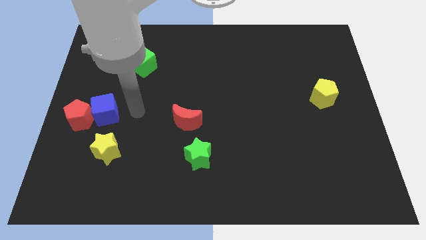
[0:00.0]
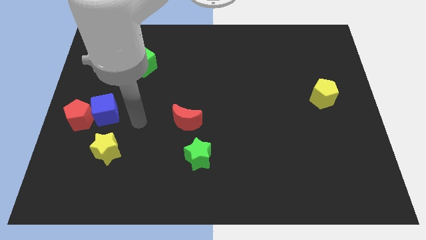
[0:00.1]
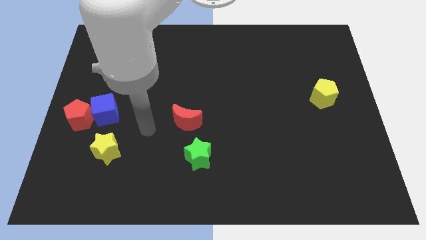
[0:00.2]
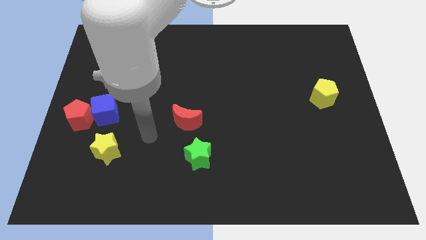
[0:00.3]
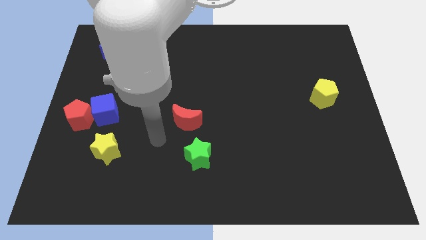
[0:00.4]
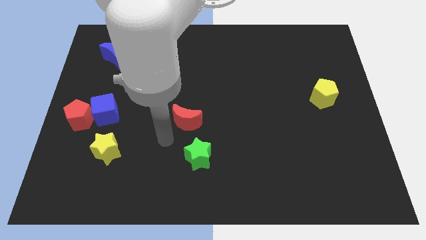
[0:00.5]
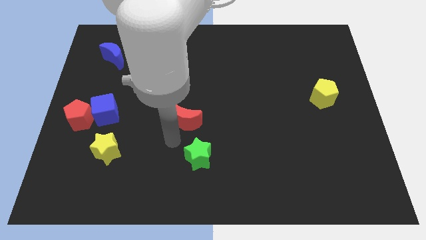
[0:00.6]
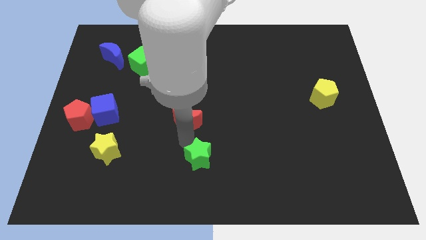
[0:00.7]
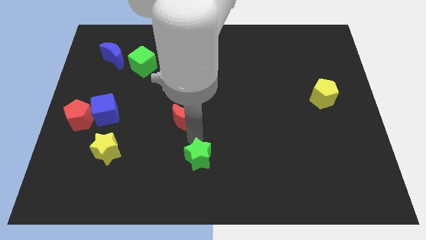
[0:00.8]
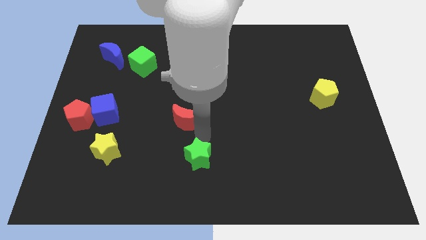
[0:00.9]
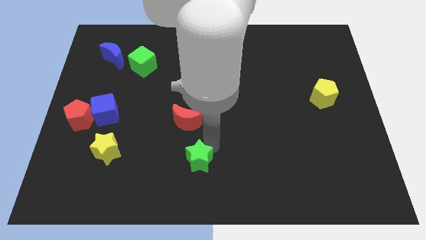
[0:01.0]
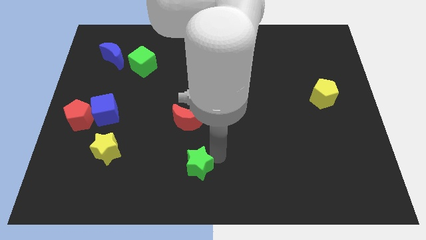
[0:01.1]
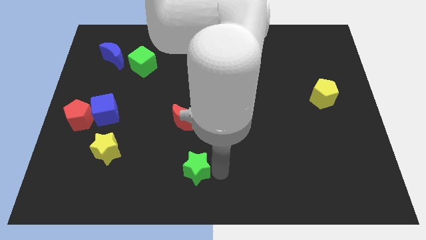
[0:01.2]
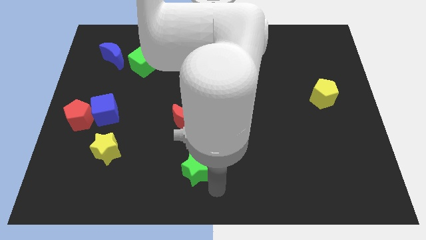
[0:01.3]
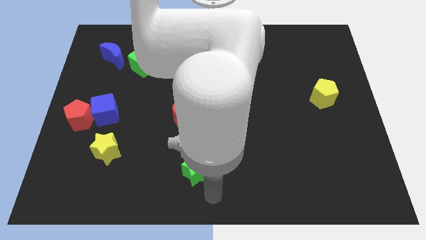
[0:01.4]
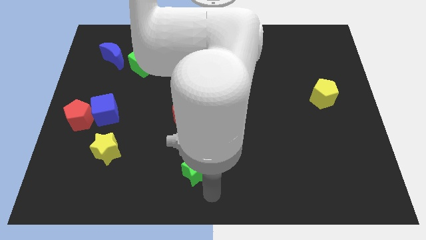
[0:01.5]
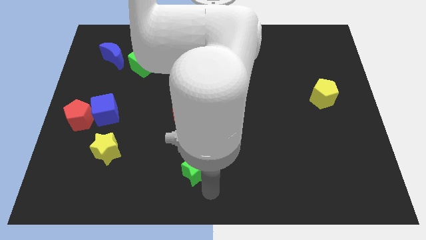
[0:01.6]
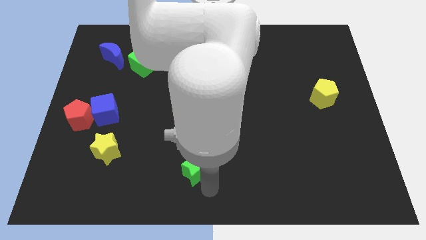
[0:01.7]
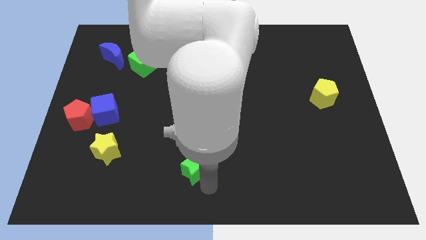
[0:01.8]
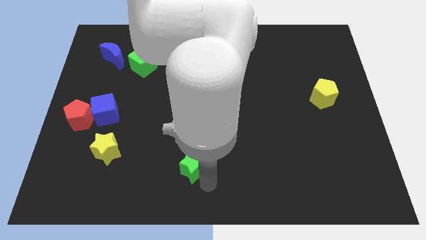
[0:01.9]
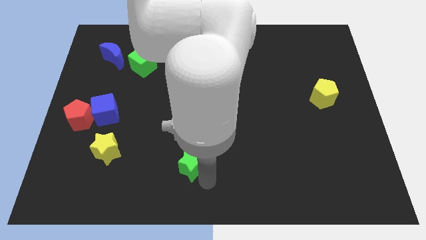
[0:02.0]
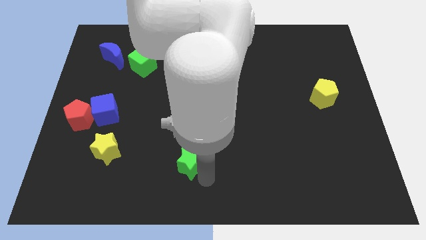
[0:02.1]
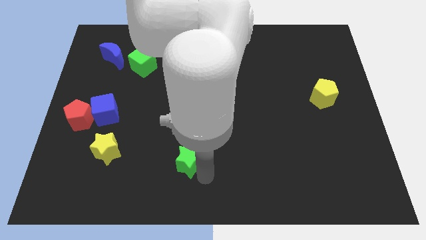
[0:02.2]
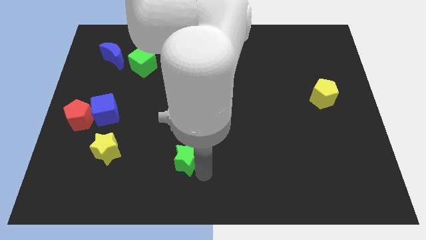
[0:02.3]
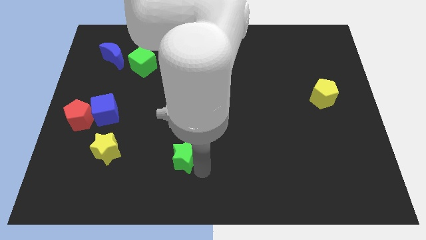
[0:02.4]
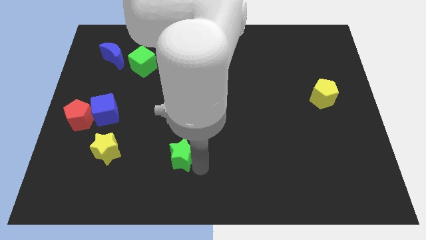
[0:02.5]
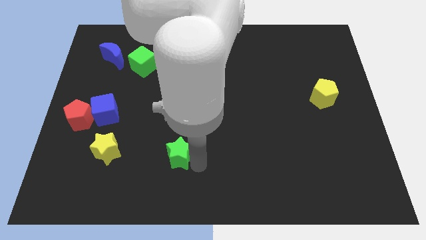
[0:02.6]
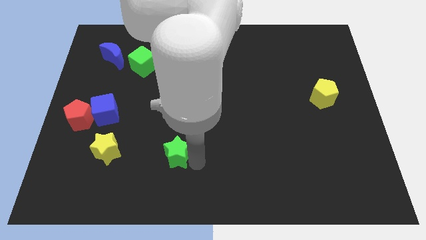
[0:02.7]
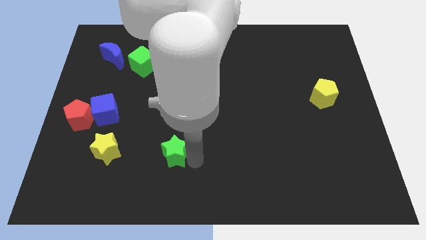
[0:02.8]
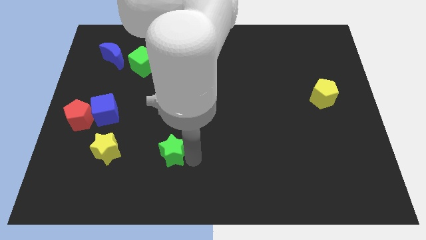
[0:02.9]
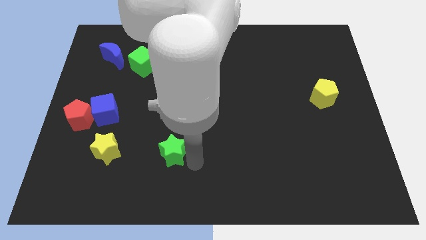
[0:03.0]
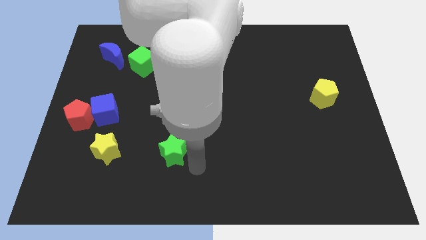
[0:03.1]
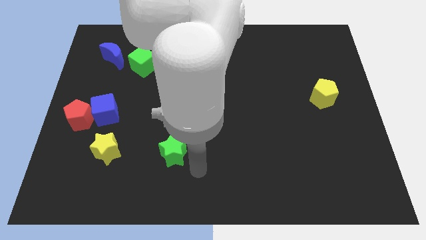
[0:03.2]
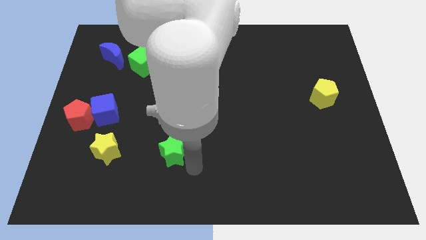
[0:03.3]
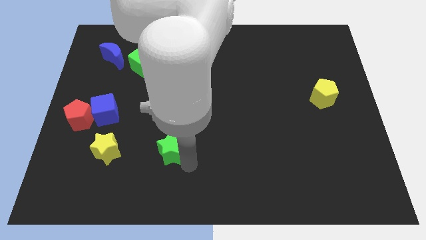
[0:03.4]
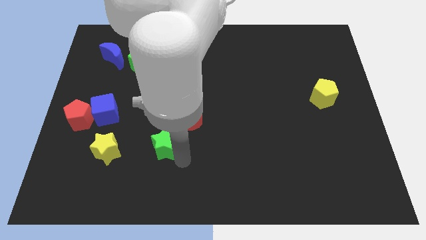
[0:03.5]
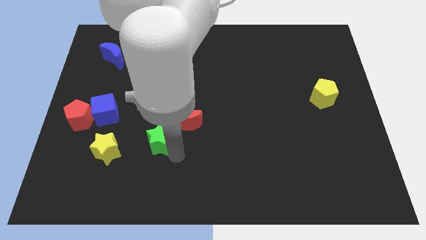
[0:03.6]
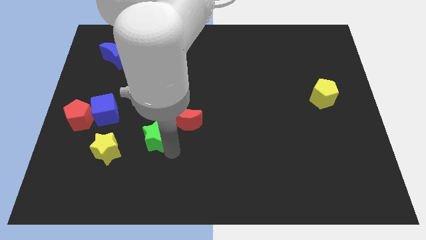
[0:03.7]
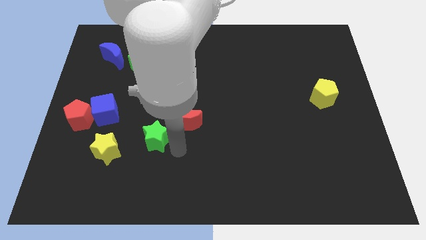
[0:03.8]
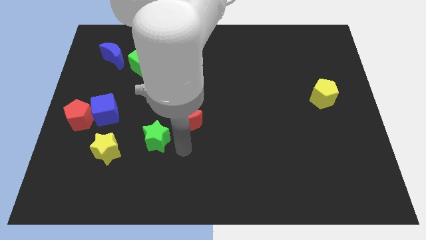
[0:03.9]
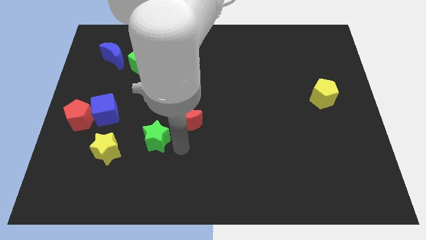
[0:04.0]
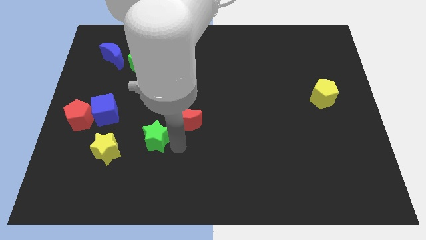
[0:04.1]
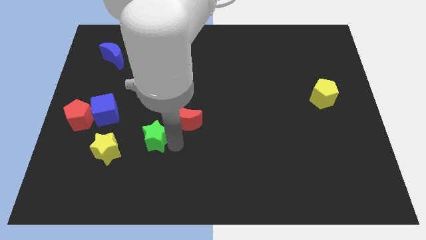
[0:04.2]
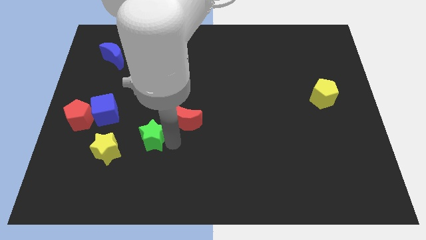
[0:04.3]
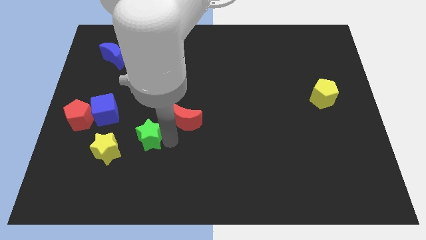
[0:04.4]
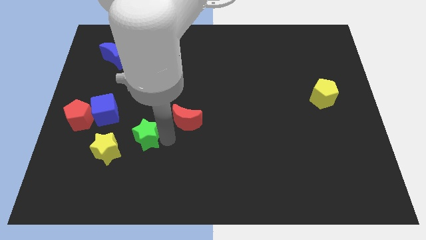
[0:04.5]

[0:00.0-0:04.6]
move the green star diagonally down and to the right of the blue cube

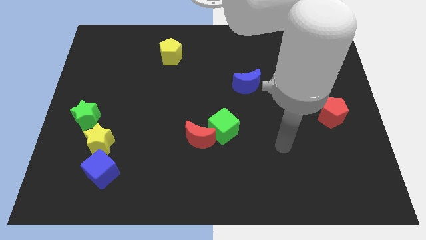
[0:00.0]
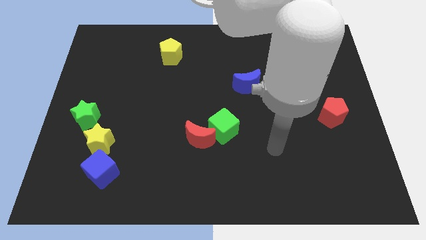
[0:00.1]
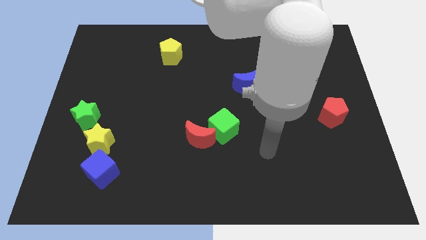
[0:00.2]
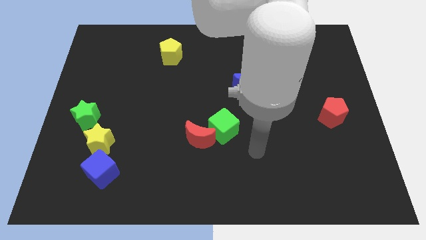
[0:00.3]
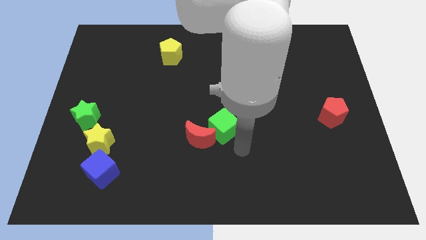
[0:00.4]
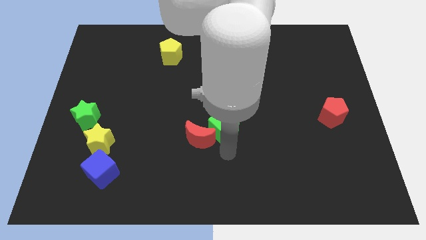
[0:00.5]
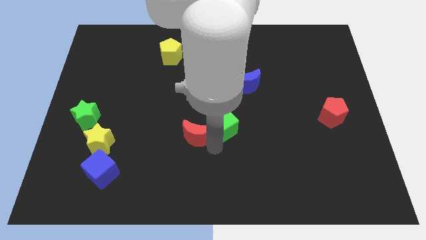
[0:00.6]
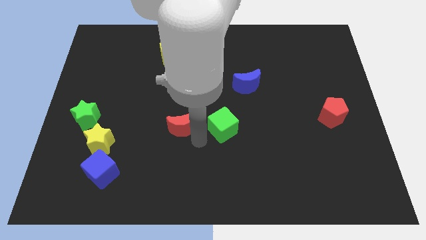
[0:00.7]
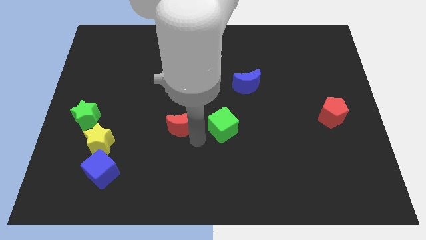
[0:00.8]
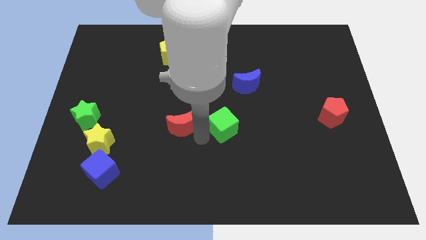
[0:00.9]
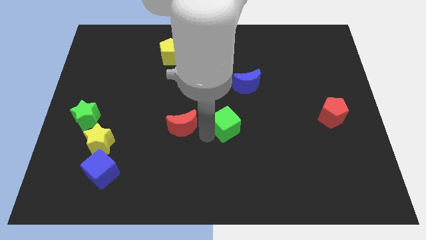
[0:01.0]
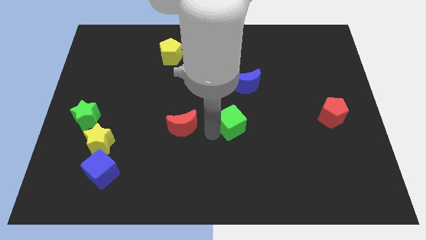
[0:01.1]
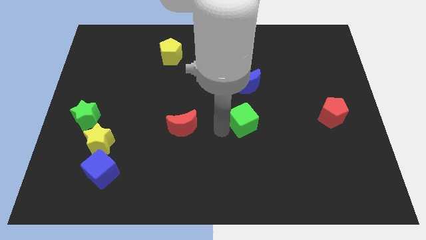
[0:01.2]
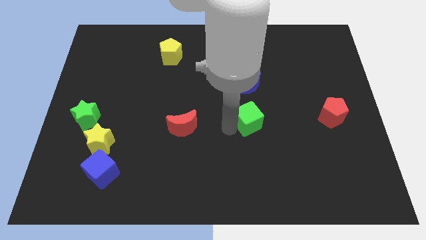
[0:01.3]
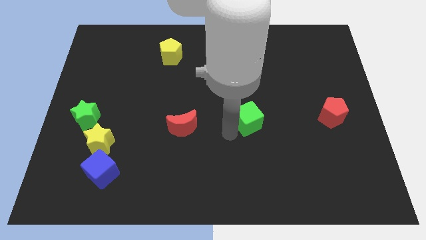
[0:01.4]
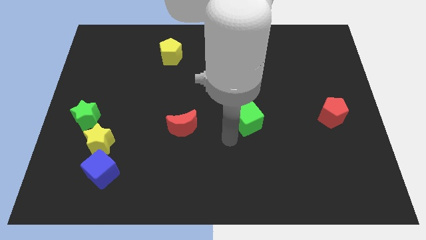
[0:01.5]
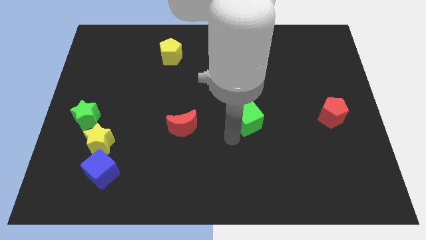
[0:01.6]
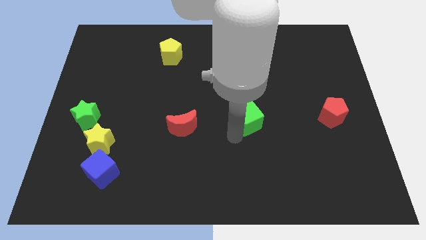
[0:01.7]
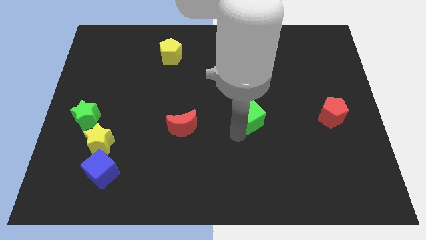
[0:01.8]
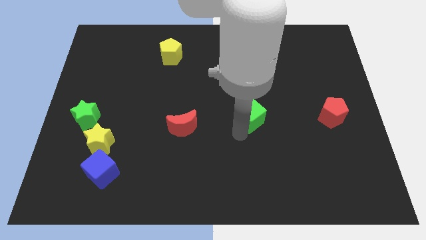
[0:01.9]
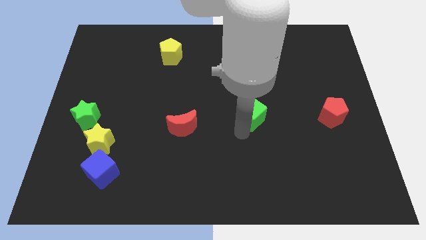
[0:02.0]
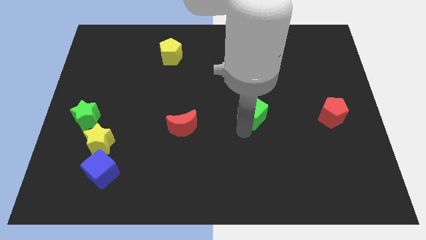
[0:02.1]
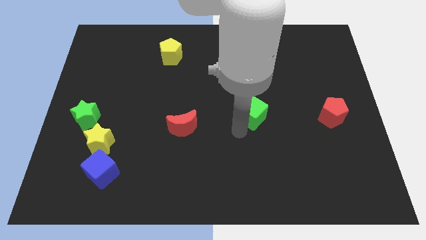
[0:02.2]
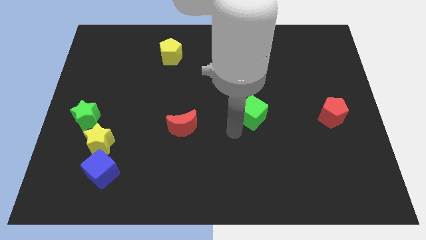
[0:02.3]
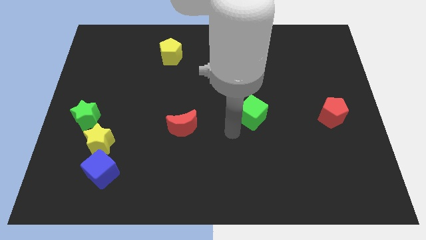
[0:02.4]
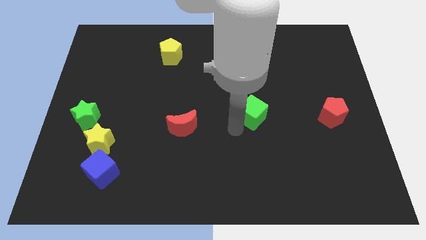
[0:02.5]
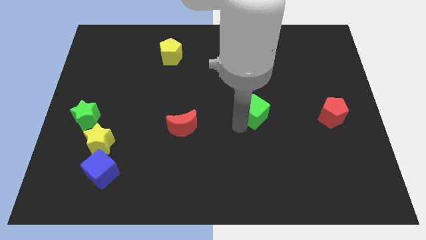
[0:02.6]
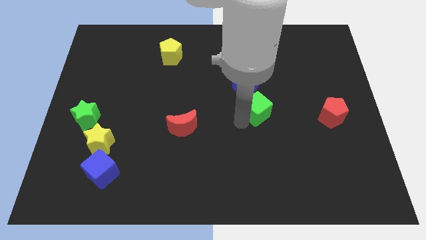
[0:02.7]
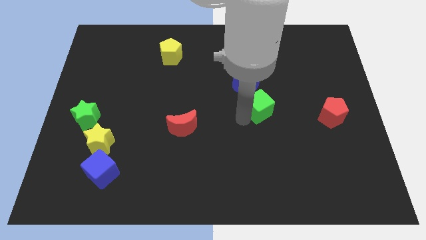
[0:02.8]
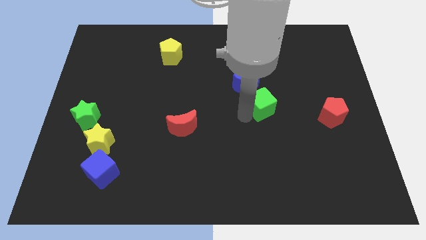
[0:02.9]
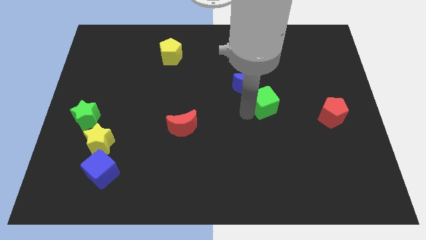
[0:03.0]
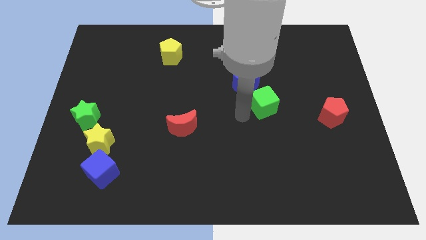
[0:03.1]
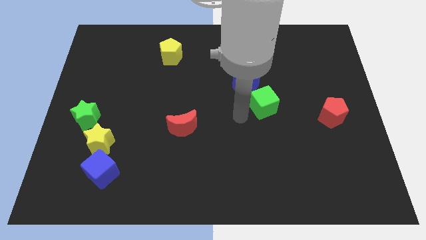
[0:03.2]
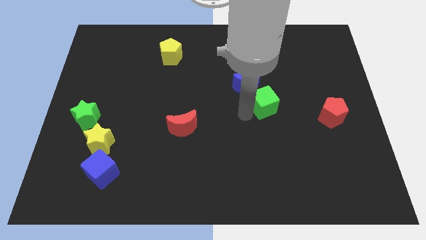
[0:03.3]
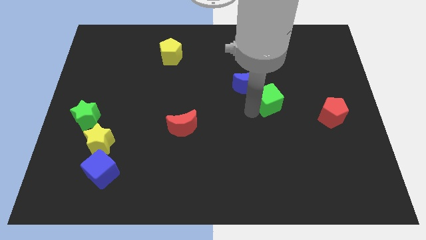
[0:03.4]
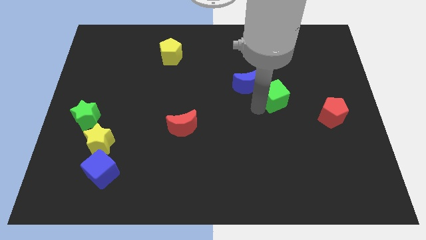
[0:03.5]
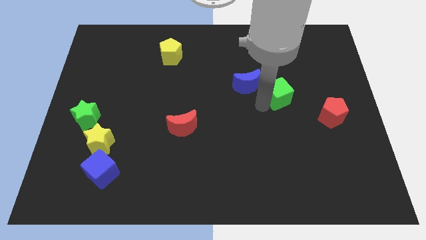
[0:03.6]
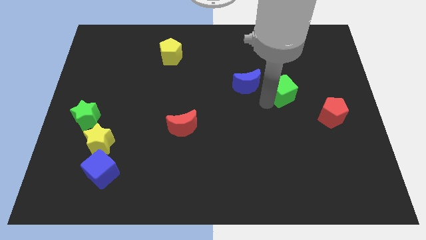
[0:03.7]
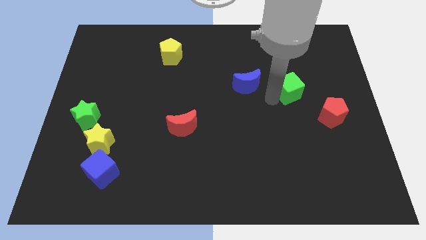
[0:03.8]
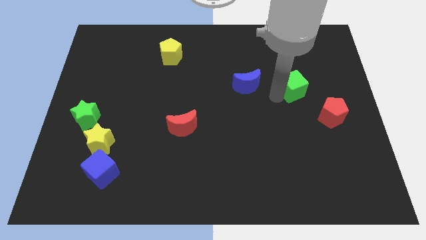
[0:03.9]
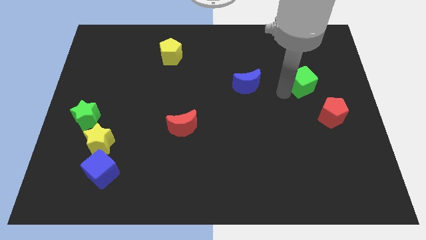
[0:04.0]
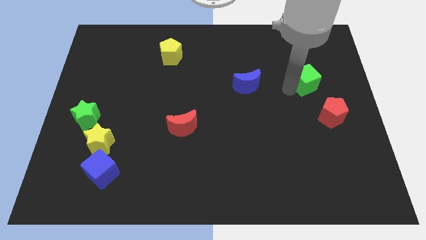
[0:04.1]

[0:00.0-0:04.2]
move the green cube to the top side of the red pentagon
